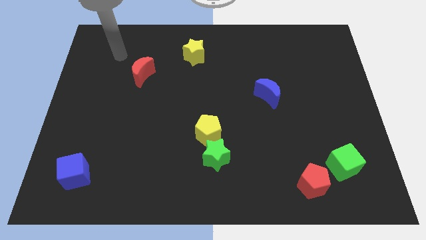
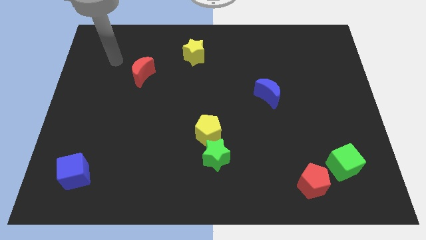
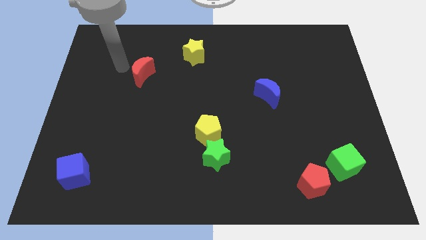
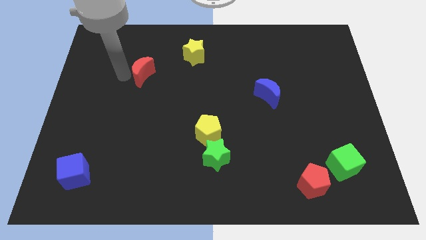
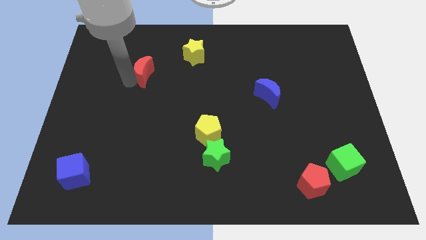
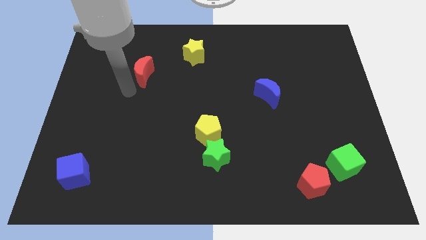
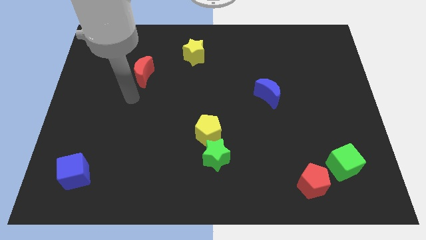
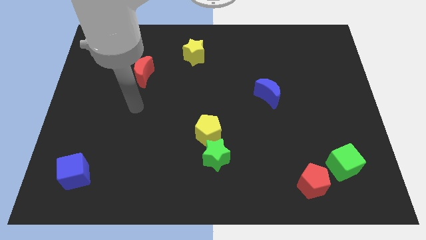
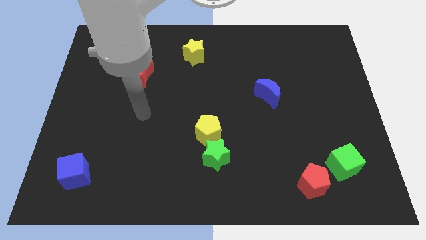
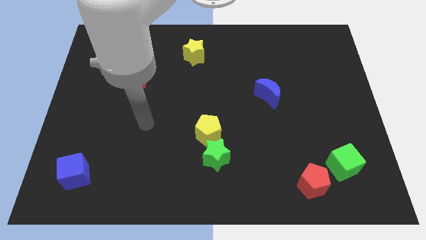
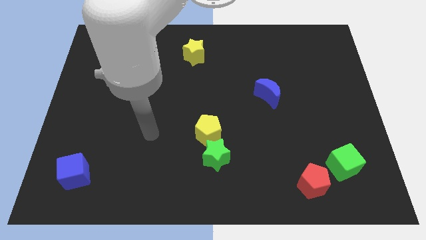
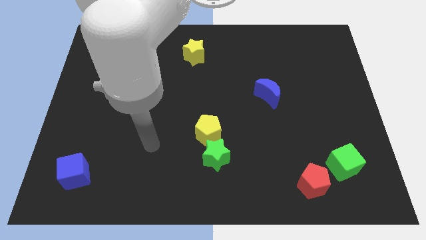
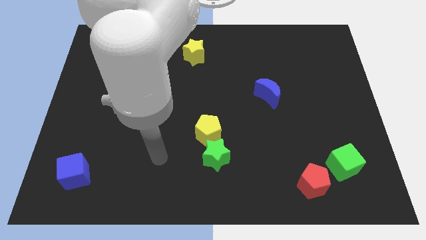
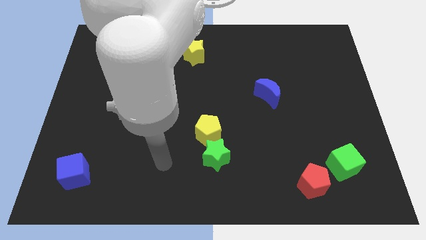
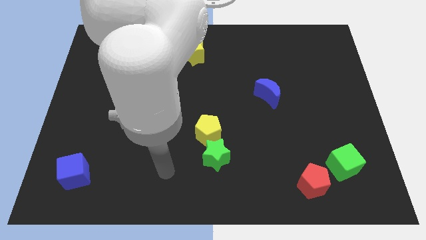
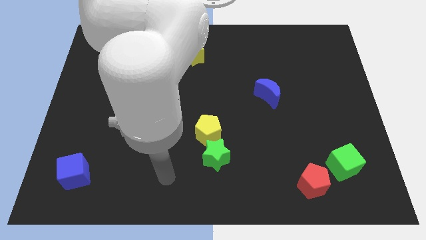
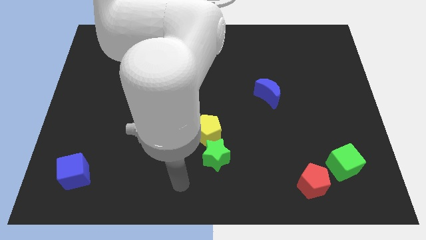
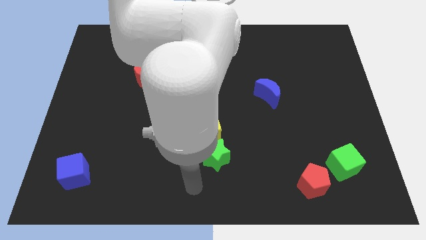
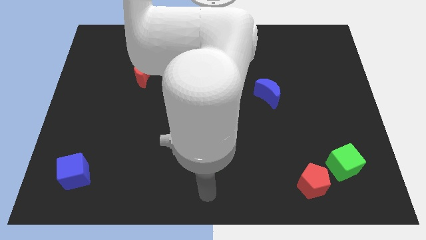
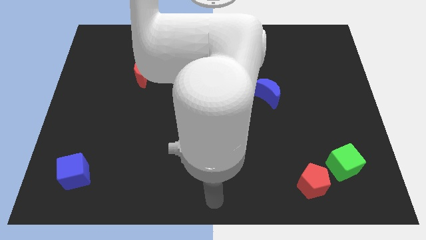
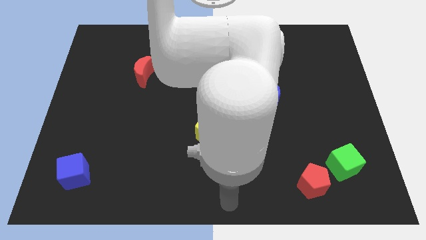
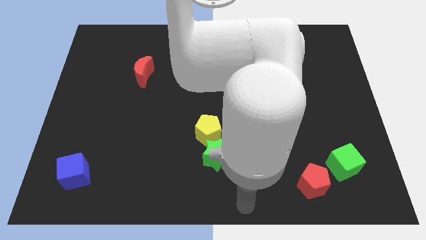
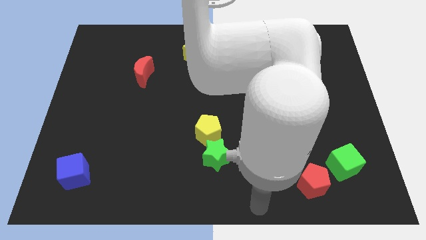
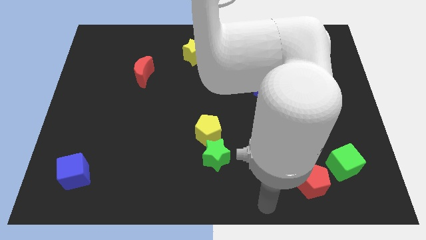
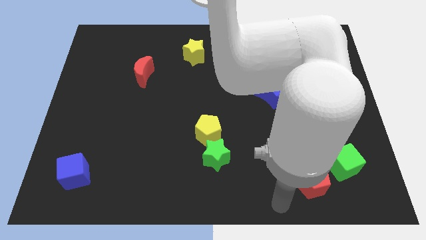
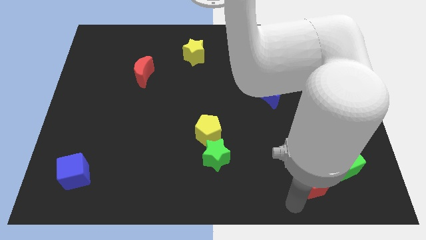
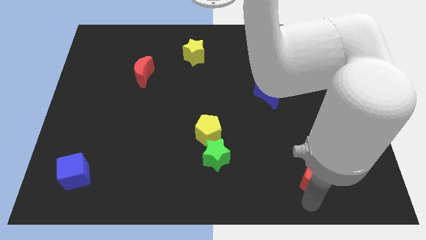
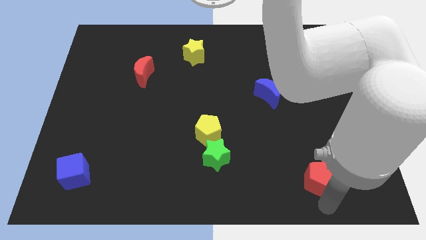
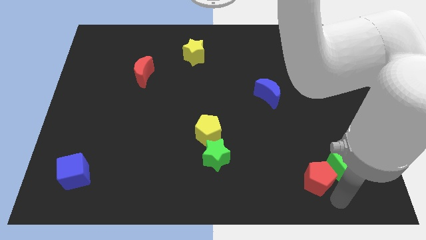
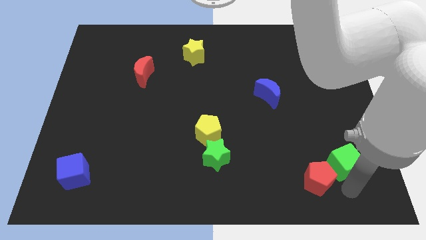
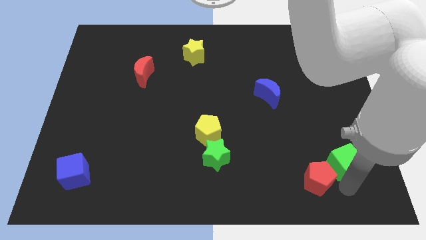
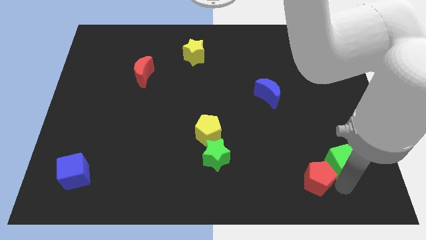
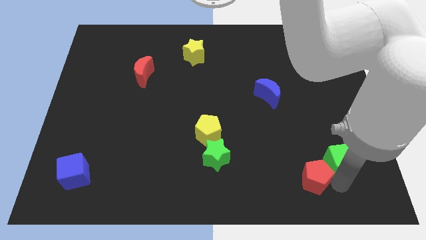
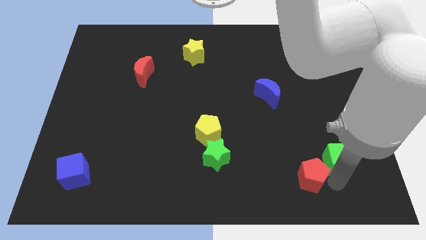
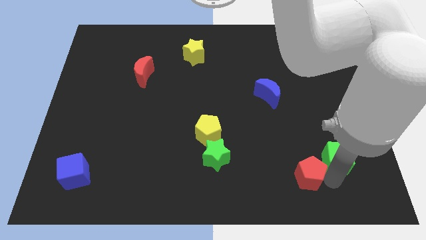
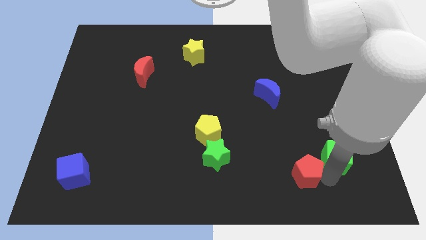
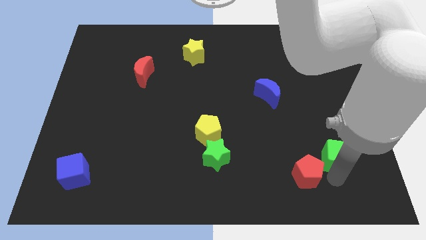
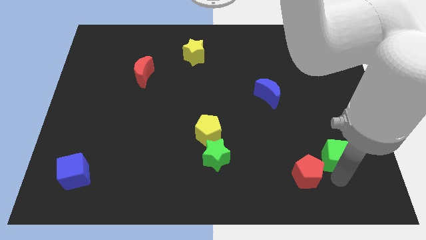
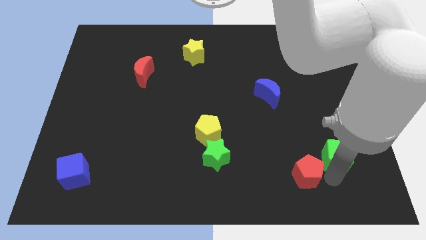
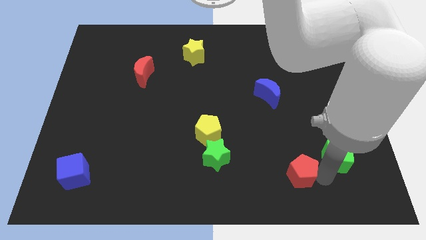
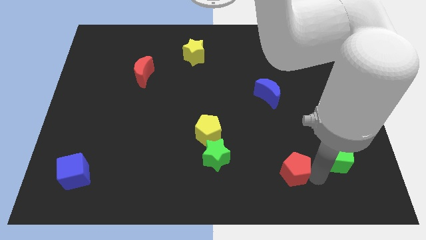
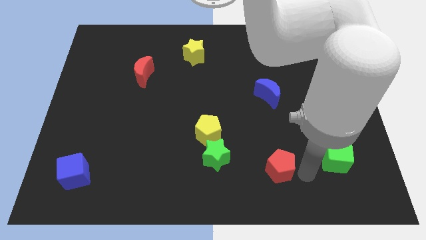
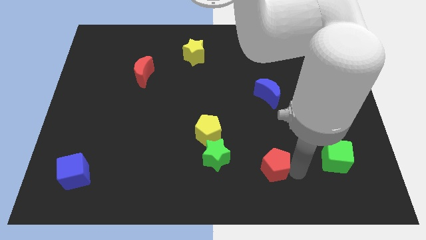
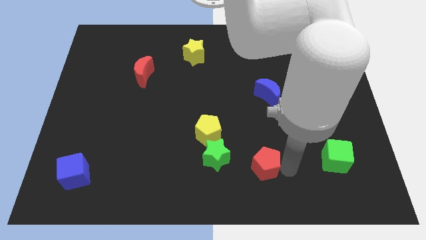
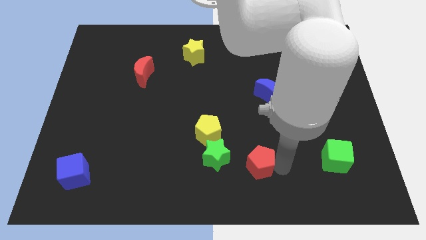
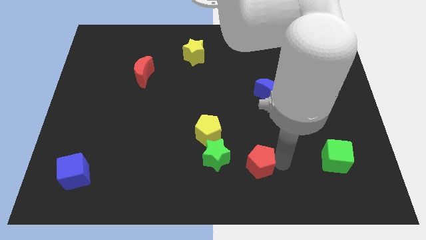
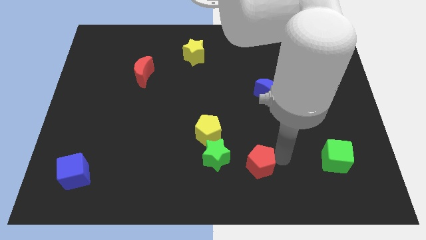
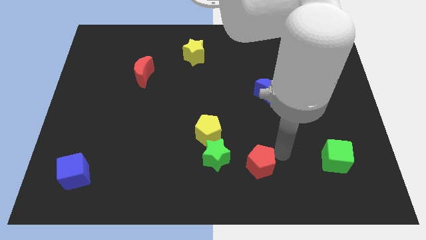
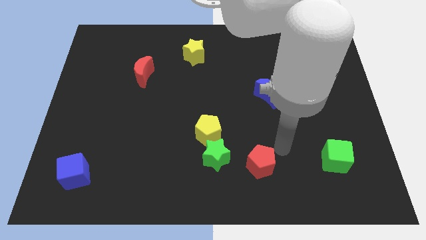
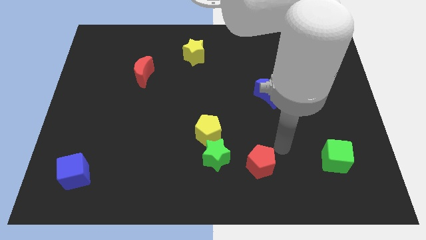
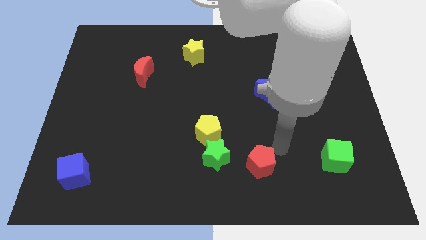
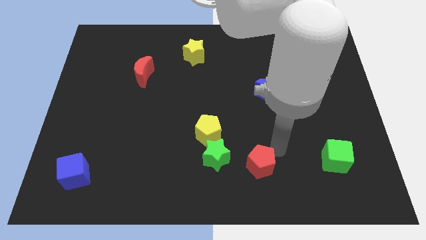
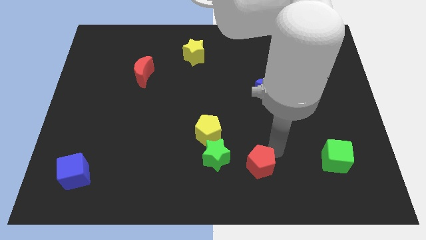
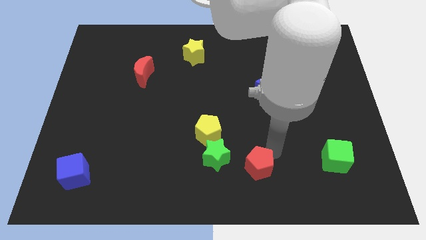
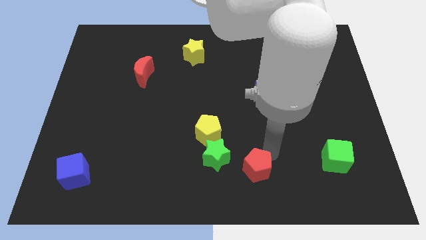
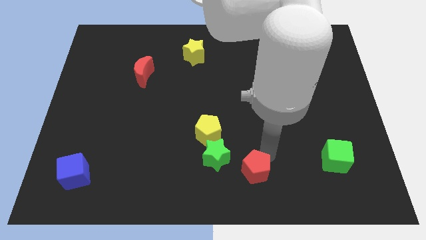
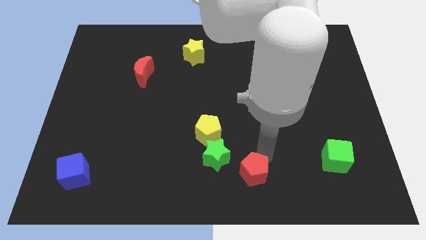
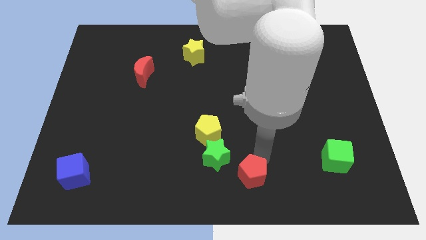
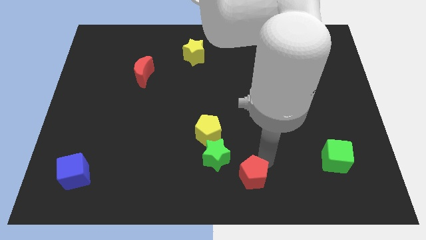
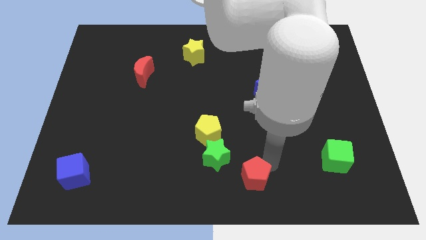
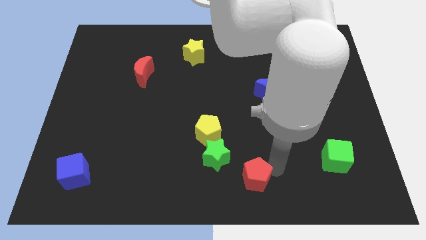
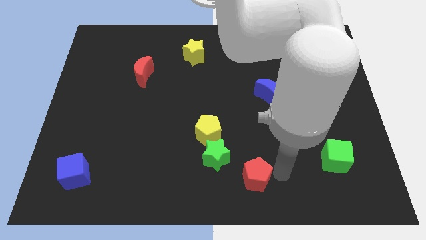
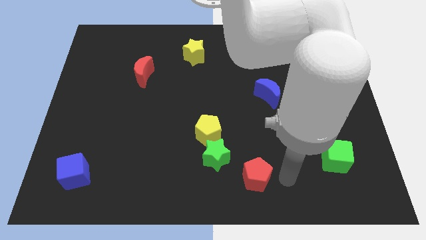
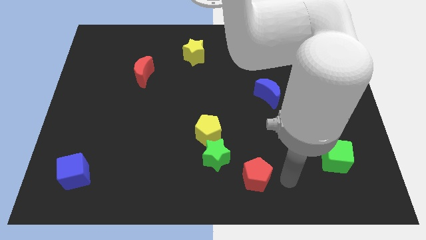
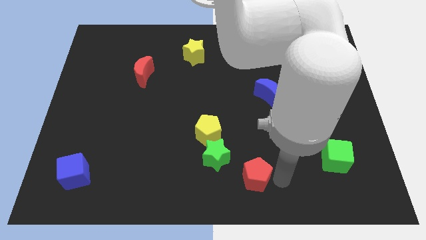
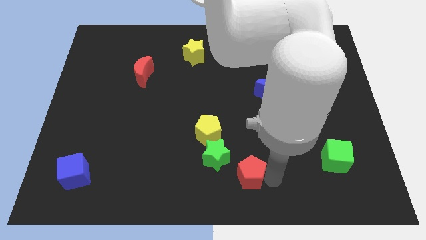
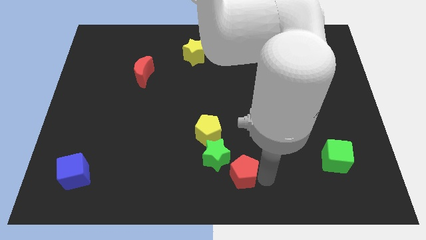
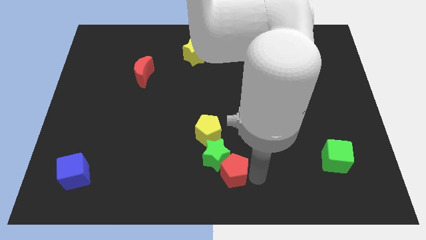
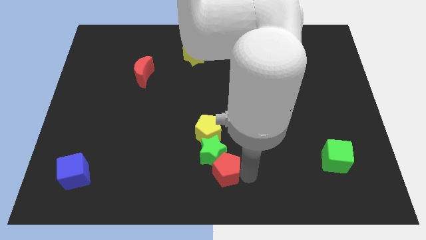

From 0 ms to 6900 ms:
slide the red pentagon to the bottom side of the yellow pentagon

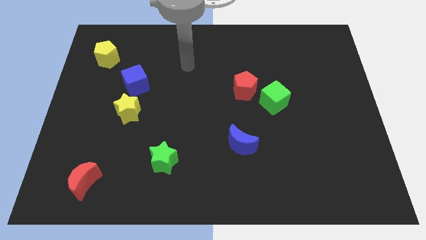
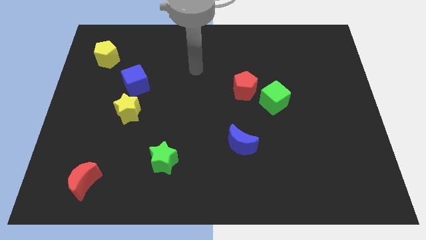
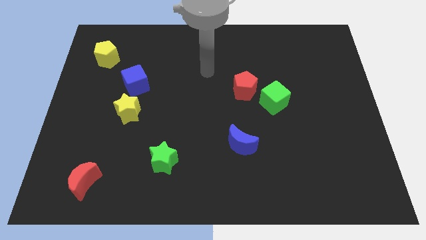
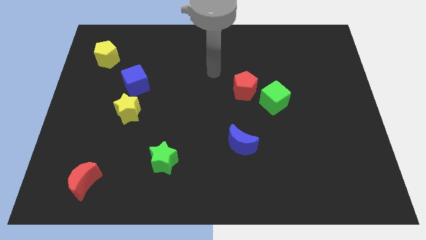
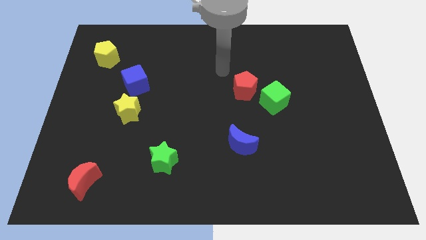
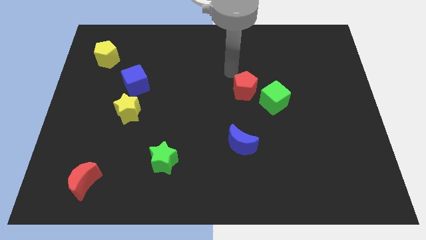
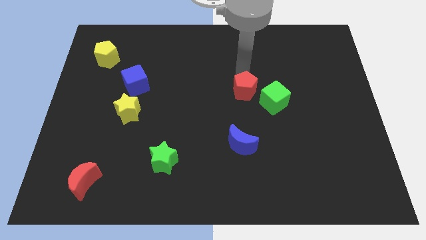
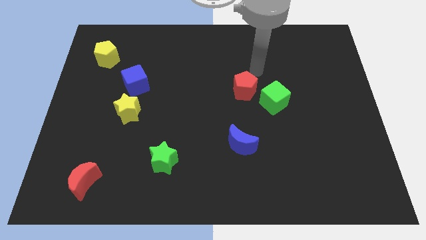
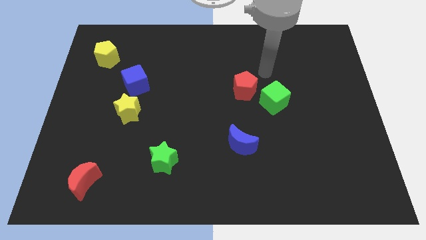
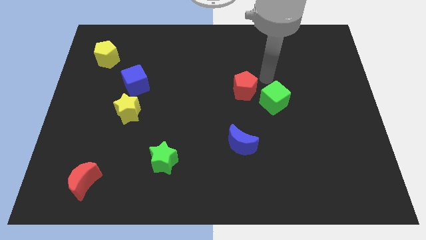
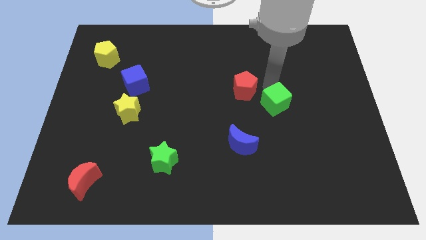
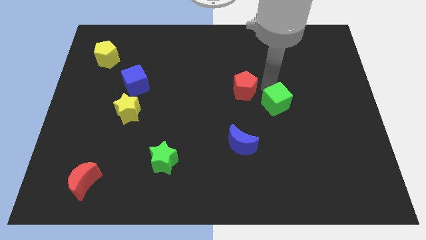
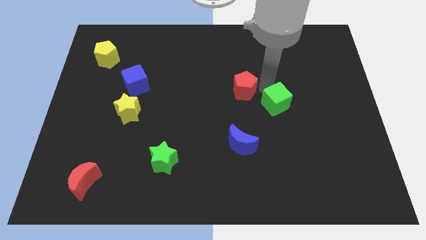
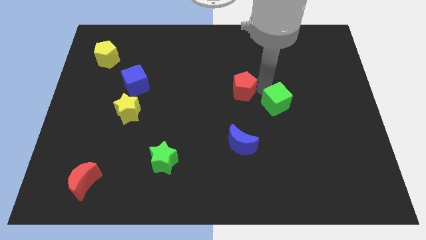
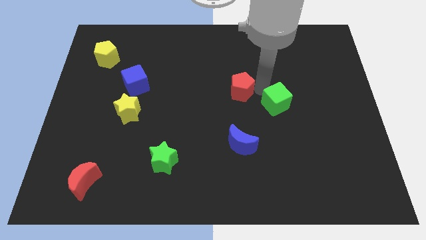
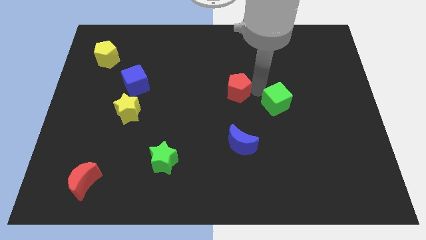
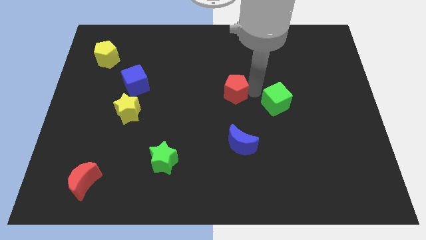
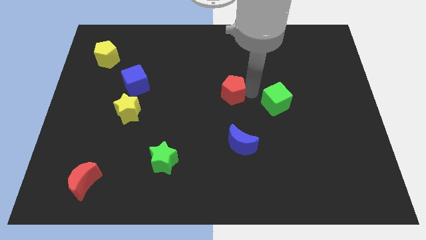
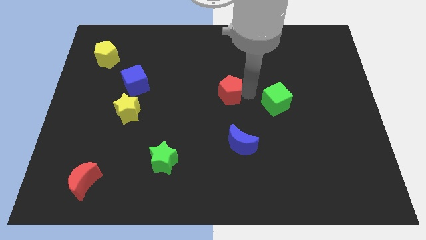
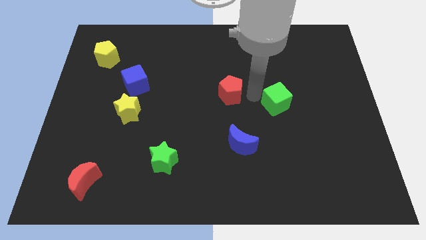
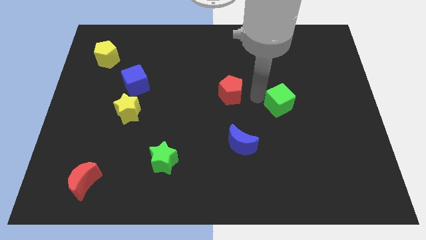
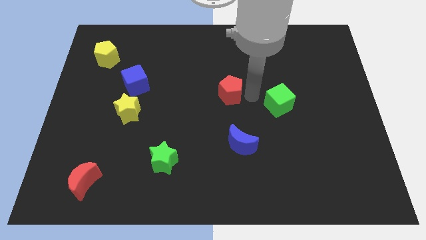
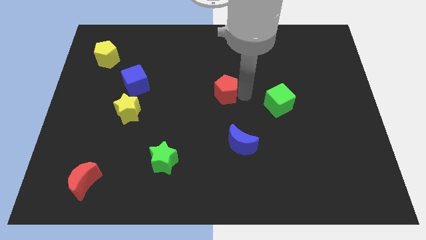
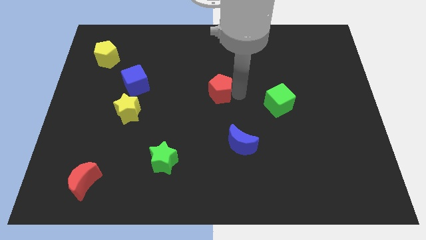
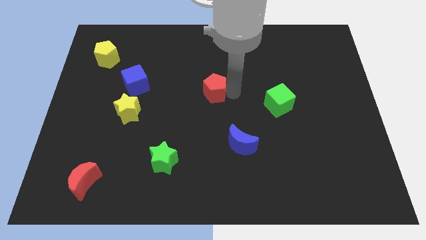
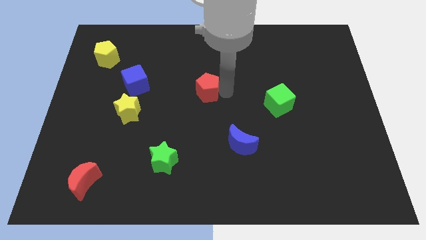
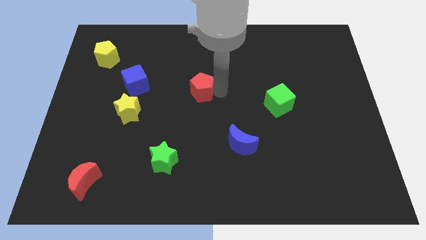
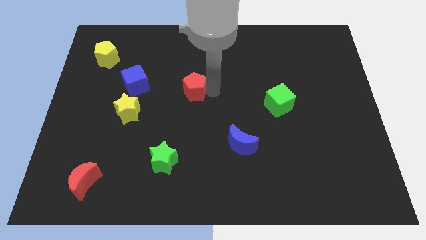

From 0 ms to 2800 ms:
slide the red pentagon right of the blue cube
